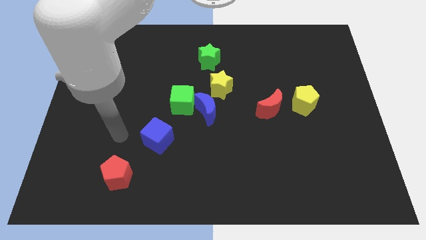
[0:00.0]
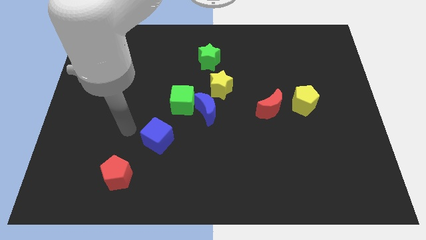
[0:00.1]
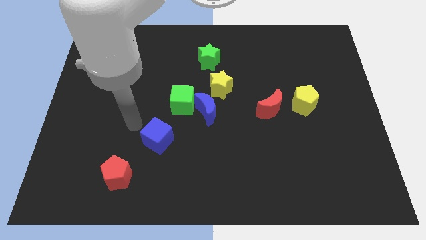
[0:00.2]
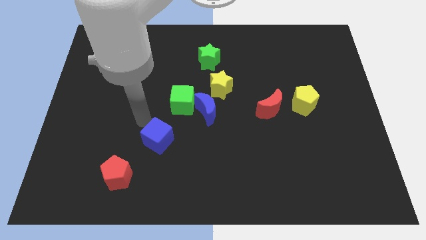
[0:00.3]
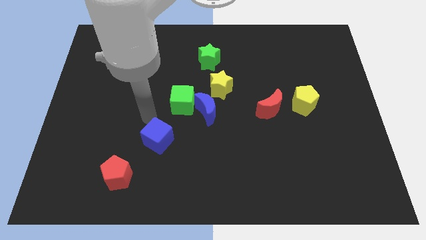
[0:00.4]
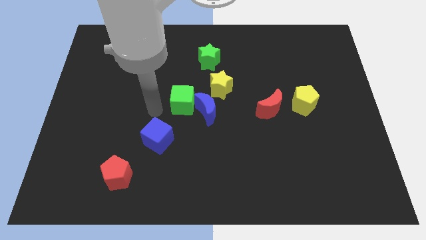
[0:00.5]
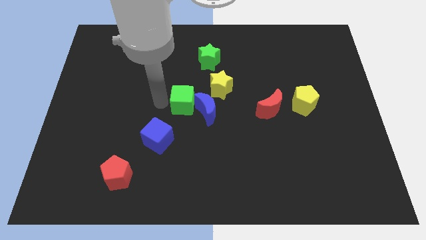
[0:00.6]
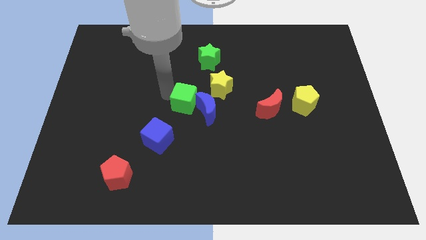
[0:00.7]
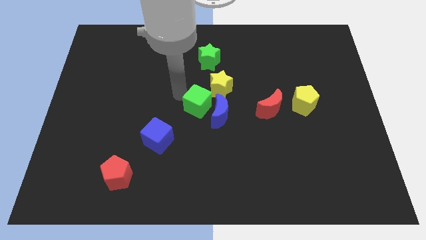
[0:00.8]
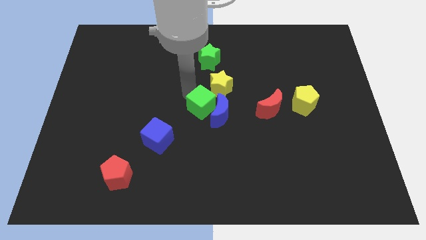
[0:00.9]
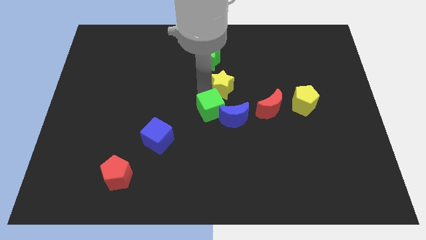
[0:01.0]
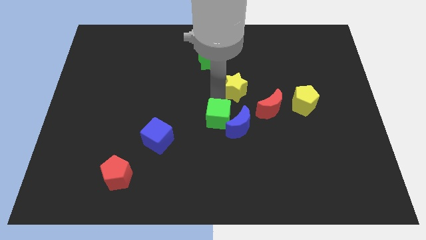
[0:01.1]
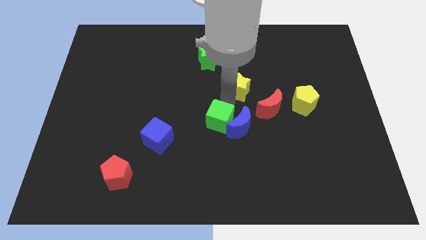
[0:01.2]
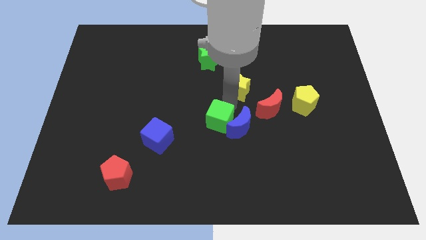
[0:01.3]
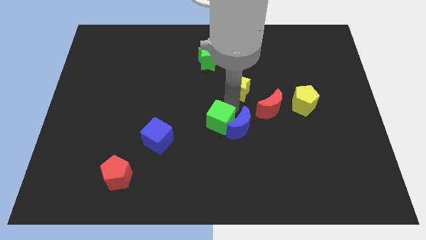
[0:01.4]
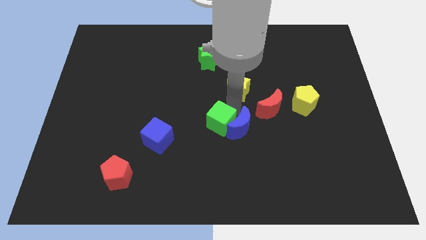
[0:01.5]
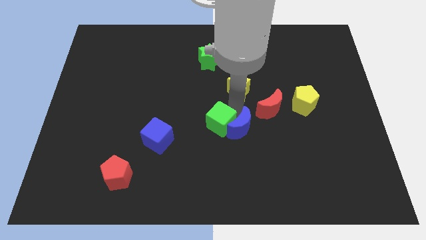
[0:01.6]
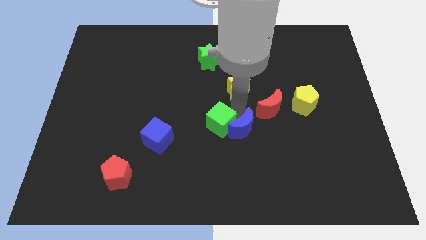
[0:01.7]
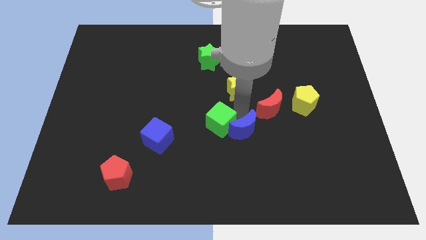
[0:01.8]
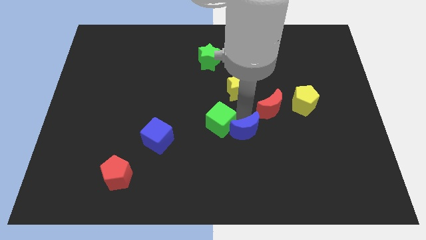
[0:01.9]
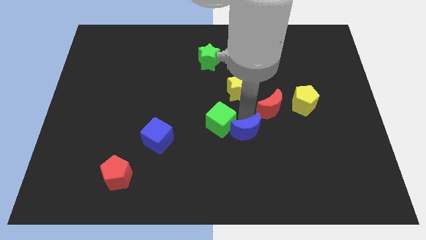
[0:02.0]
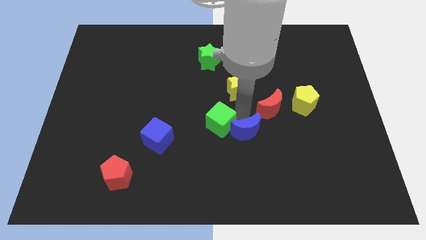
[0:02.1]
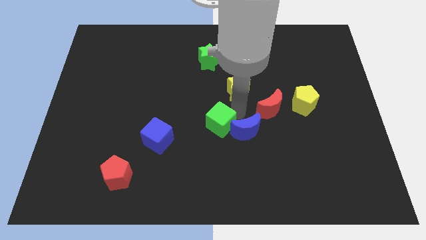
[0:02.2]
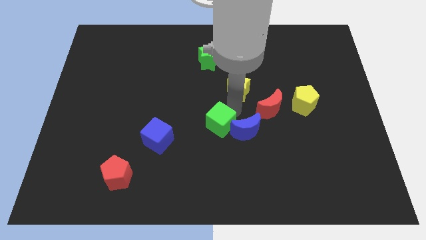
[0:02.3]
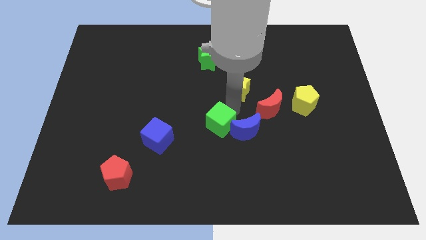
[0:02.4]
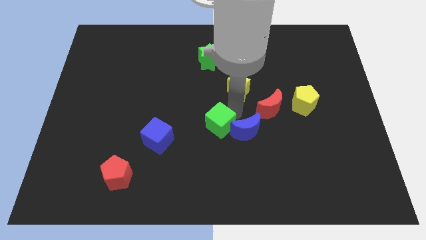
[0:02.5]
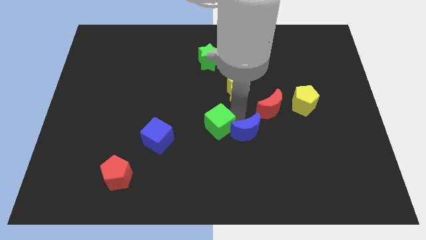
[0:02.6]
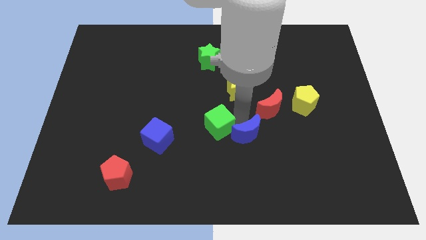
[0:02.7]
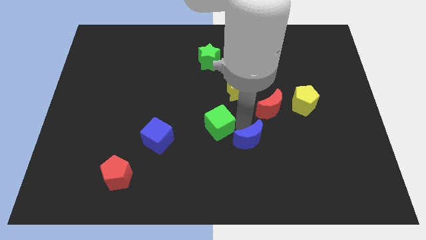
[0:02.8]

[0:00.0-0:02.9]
pull the blue moon apart from the green cube and yellow star

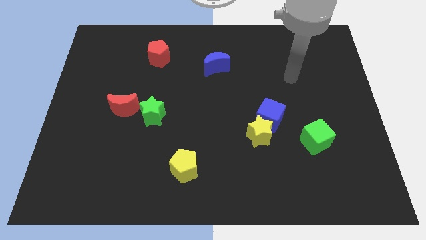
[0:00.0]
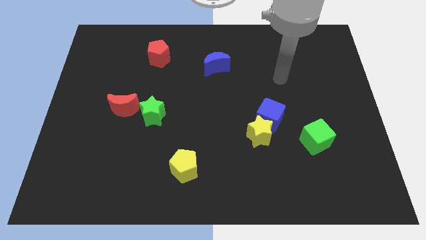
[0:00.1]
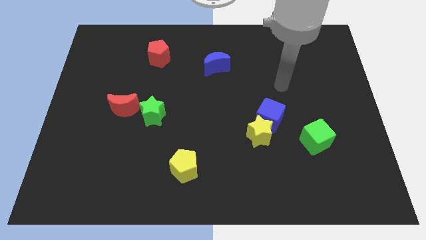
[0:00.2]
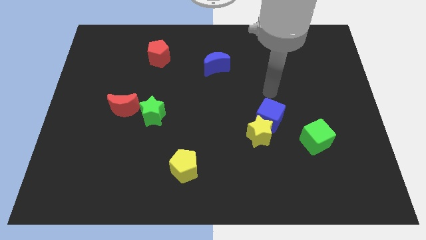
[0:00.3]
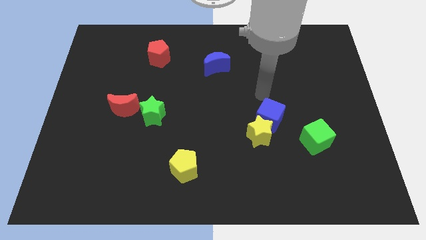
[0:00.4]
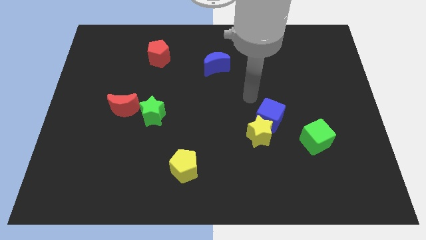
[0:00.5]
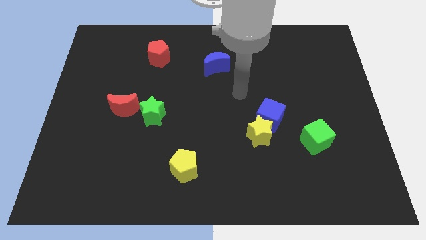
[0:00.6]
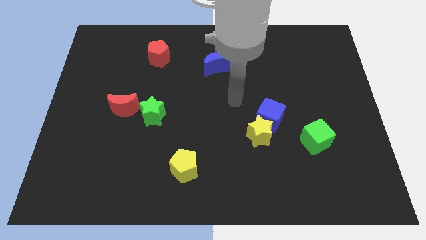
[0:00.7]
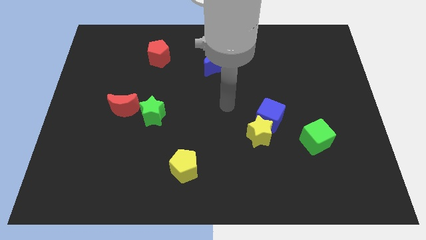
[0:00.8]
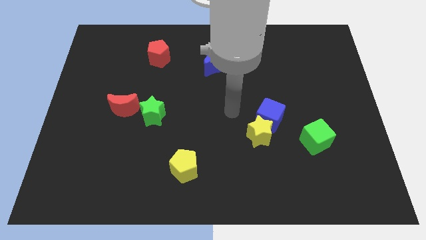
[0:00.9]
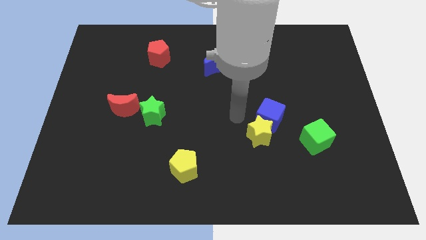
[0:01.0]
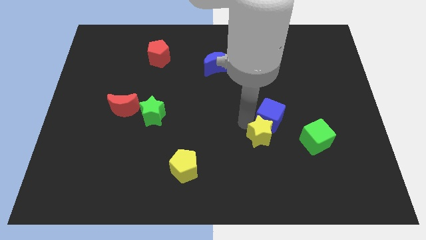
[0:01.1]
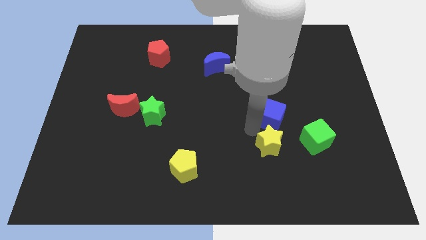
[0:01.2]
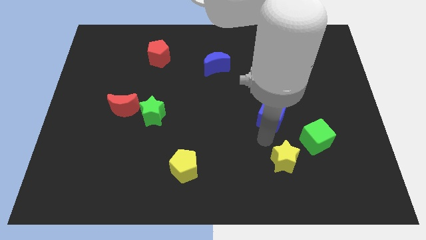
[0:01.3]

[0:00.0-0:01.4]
separate the blue cube from the yellow star

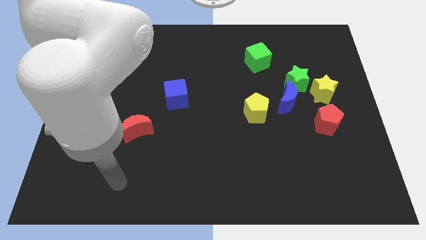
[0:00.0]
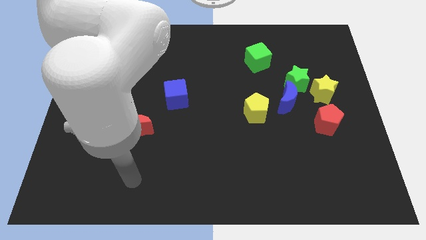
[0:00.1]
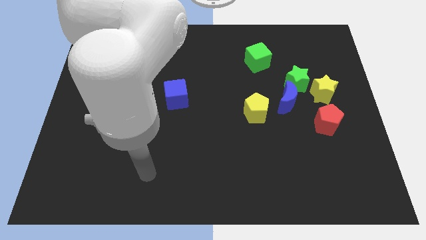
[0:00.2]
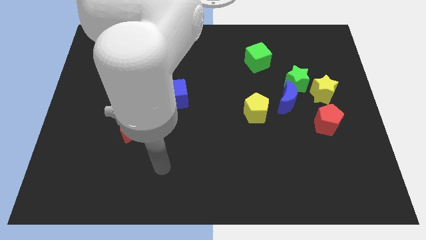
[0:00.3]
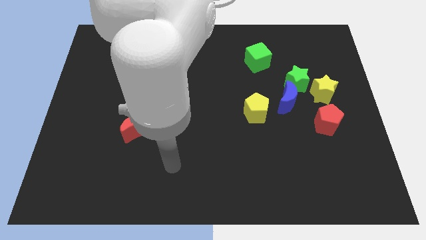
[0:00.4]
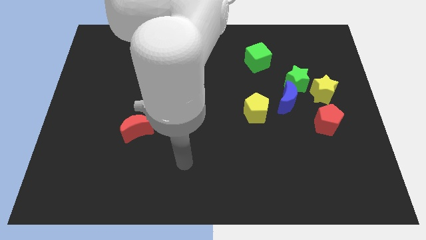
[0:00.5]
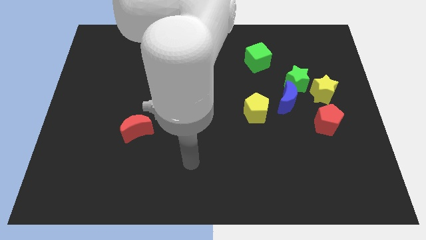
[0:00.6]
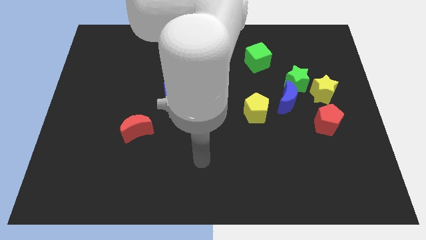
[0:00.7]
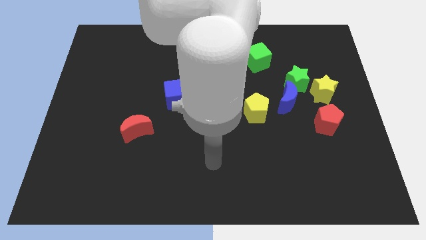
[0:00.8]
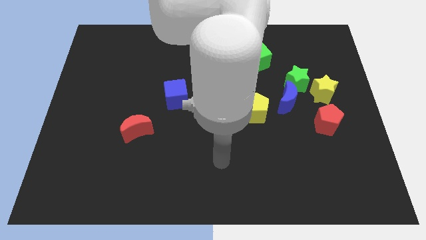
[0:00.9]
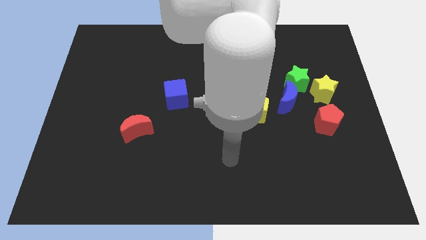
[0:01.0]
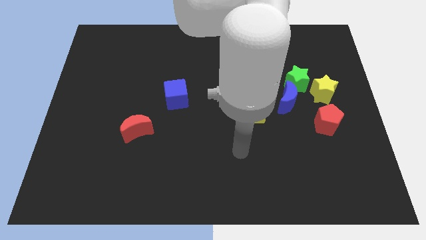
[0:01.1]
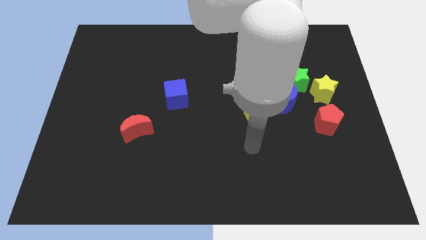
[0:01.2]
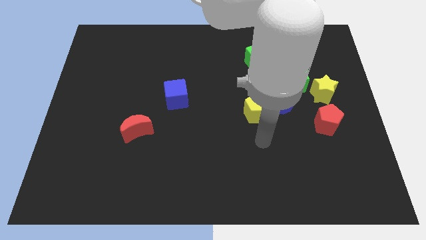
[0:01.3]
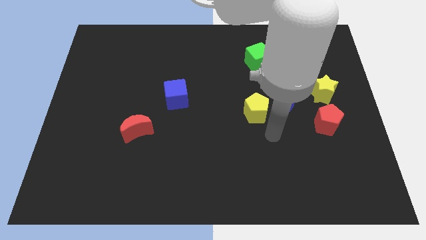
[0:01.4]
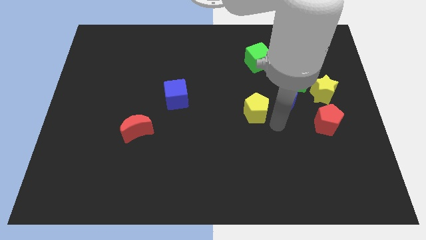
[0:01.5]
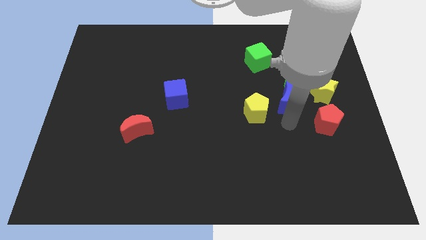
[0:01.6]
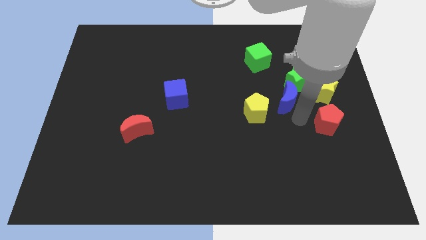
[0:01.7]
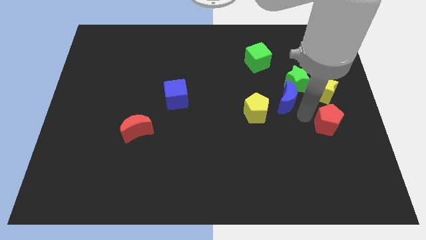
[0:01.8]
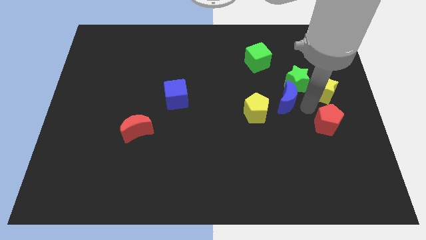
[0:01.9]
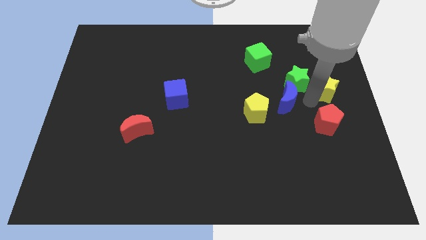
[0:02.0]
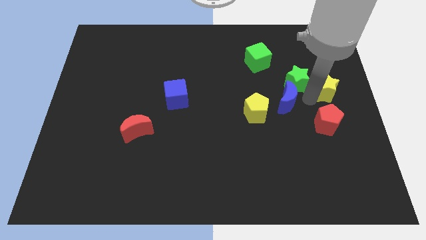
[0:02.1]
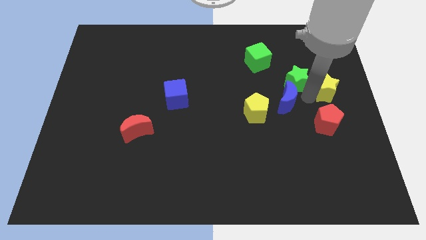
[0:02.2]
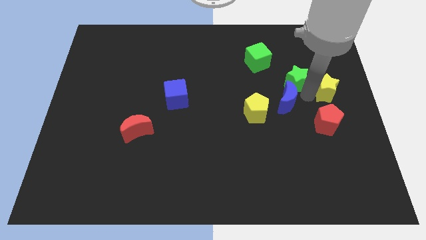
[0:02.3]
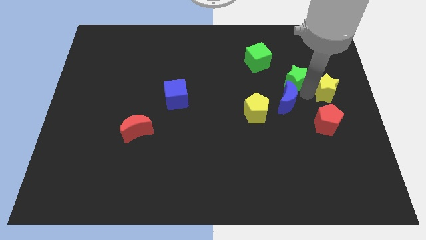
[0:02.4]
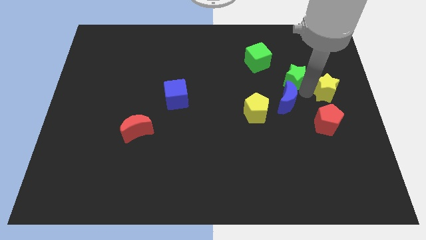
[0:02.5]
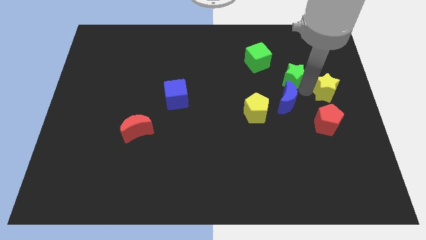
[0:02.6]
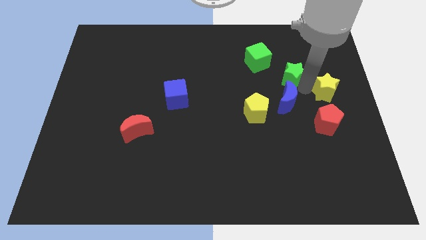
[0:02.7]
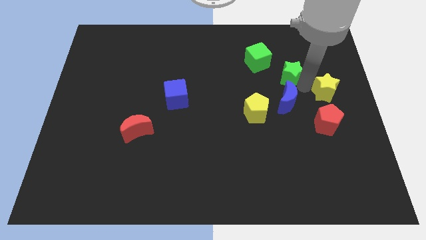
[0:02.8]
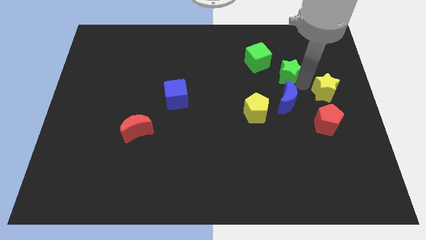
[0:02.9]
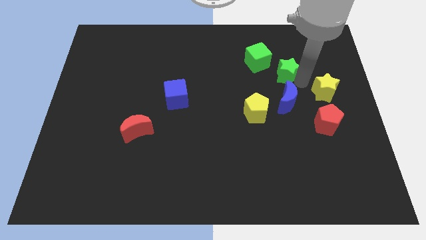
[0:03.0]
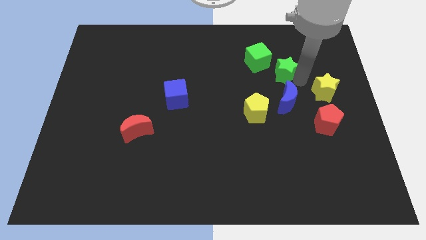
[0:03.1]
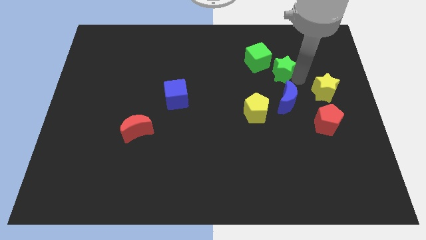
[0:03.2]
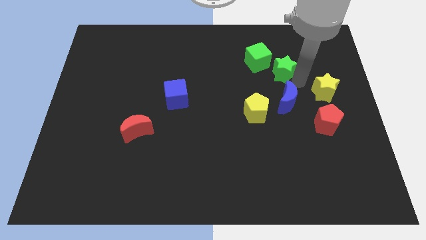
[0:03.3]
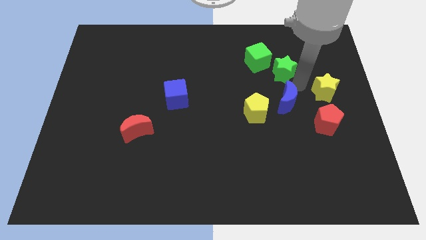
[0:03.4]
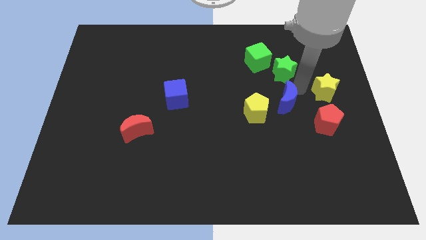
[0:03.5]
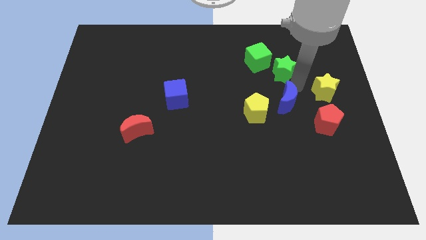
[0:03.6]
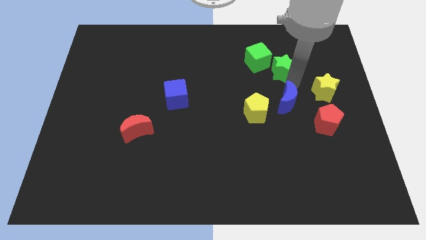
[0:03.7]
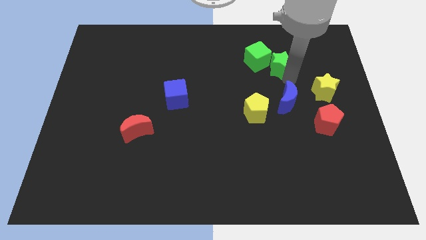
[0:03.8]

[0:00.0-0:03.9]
separate the green star from the blue moon and yellow star

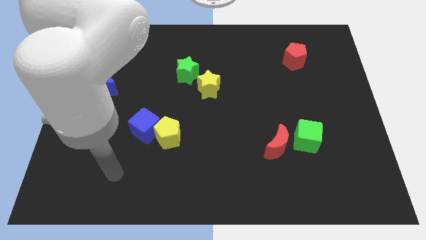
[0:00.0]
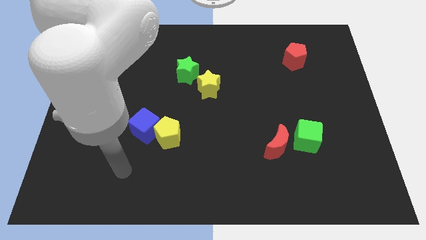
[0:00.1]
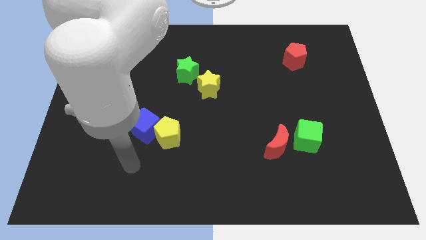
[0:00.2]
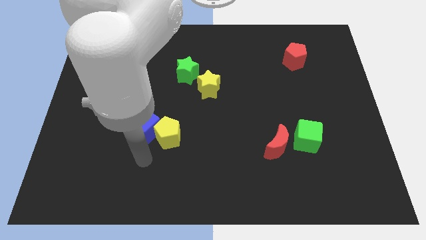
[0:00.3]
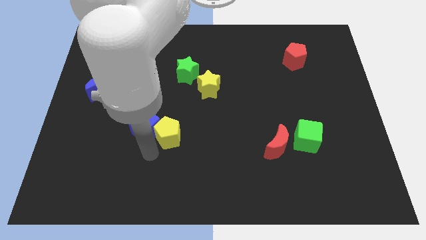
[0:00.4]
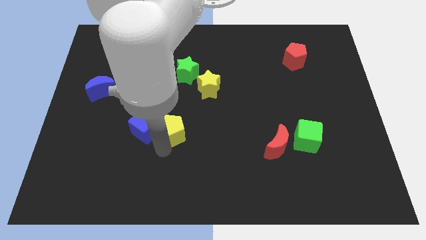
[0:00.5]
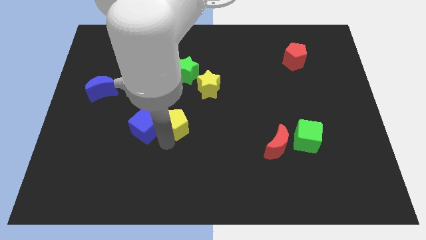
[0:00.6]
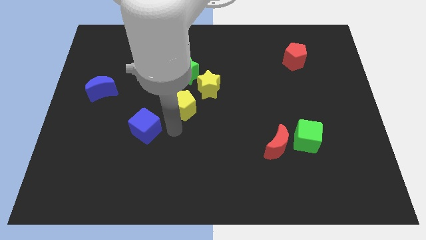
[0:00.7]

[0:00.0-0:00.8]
separate the blue cube from the yellow pentagon

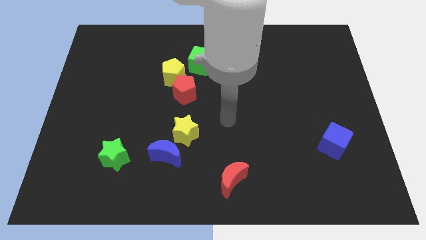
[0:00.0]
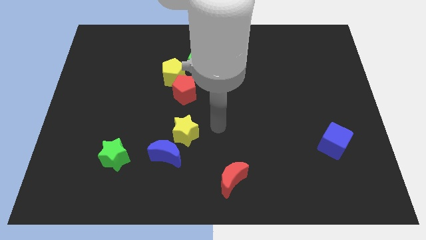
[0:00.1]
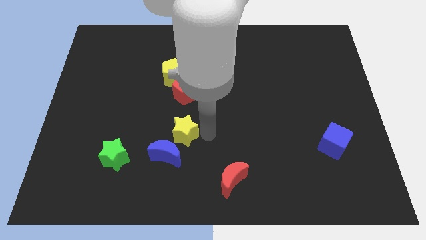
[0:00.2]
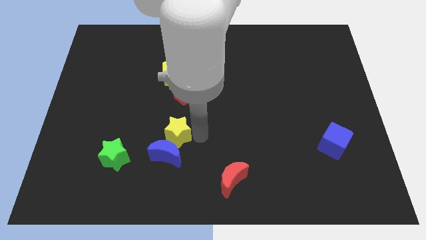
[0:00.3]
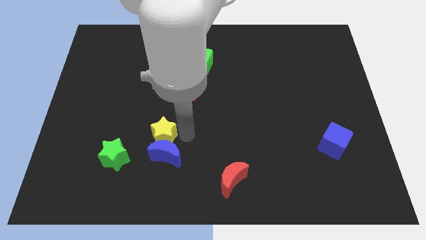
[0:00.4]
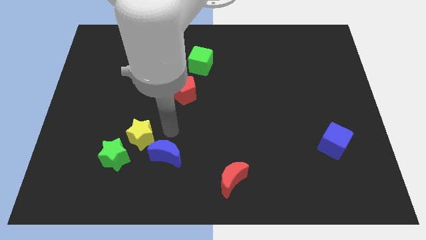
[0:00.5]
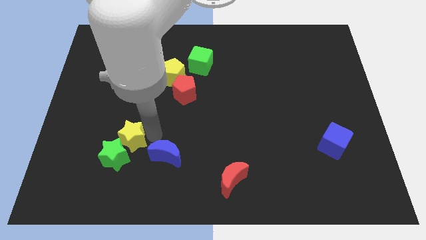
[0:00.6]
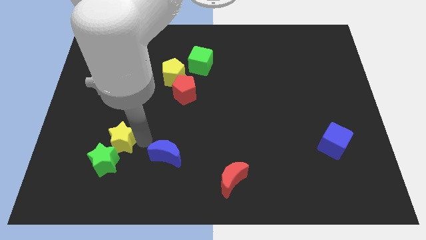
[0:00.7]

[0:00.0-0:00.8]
separate the blue moon from the yellow star
